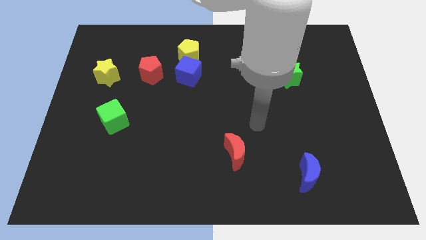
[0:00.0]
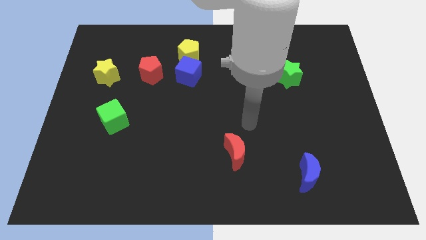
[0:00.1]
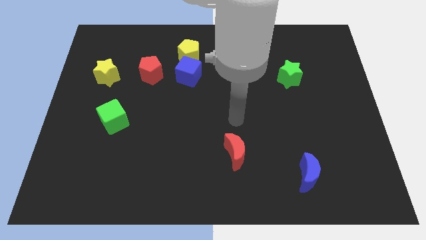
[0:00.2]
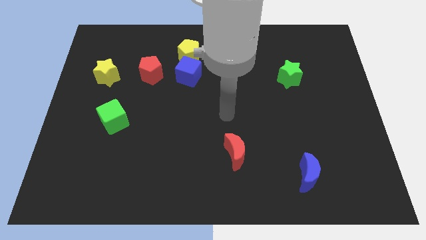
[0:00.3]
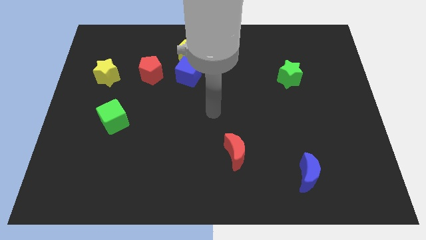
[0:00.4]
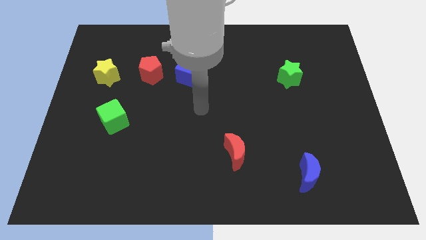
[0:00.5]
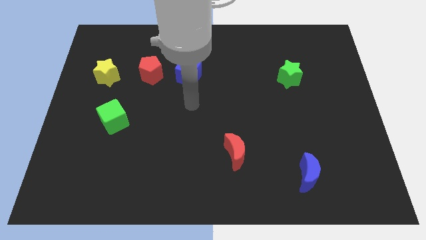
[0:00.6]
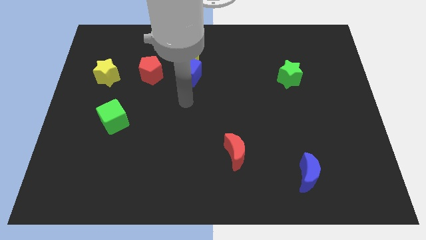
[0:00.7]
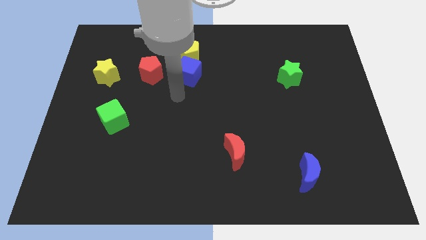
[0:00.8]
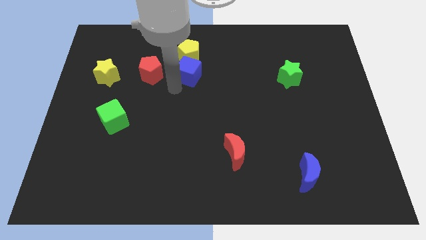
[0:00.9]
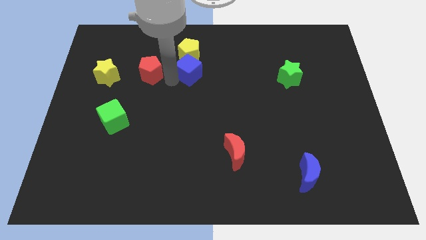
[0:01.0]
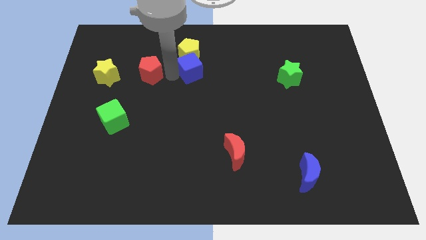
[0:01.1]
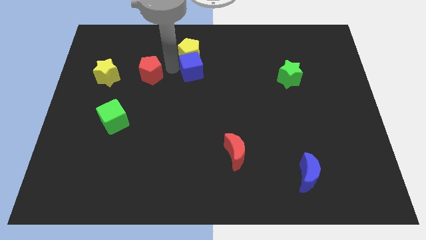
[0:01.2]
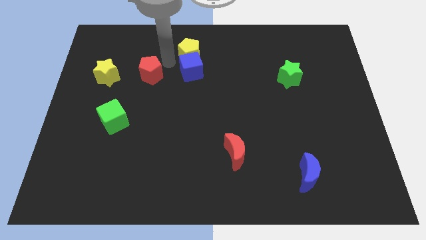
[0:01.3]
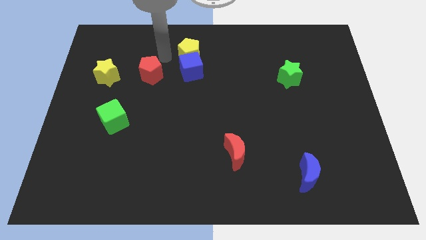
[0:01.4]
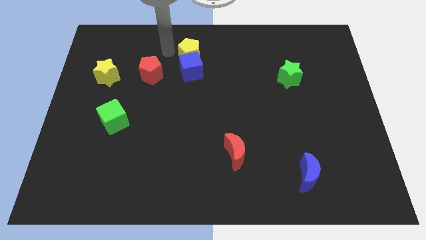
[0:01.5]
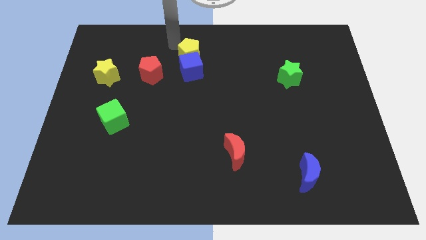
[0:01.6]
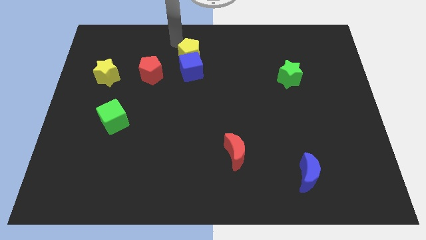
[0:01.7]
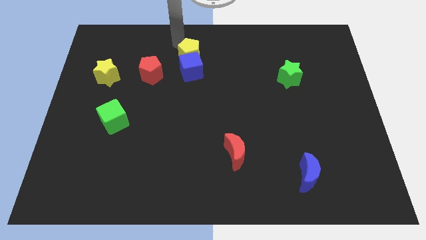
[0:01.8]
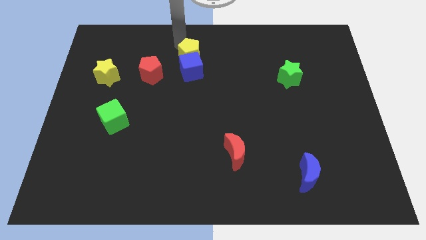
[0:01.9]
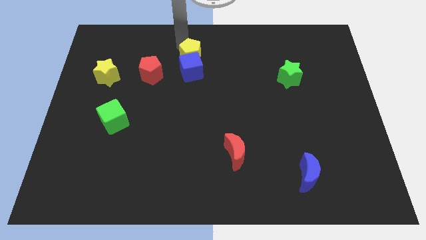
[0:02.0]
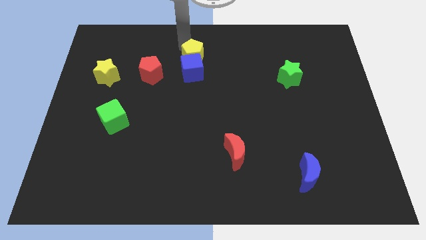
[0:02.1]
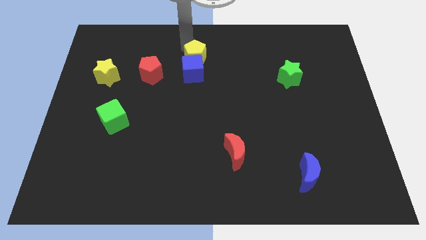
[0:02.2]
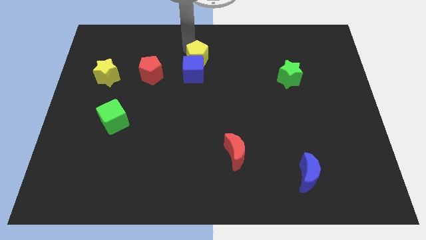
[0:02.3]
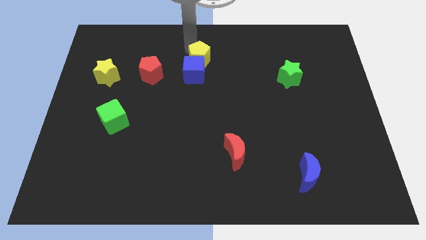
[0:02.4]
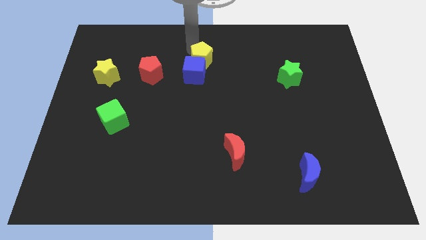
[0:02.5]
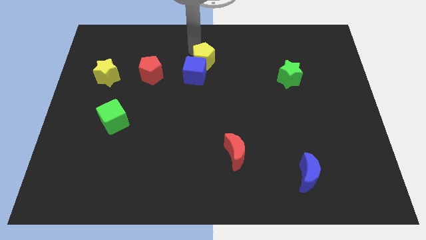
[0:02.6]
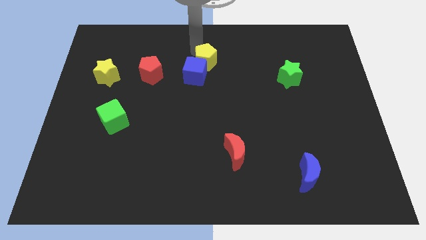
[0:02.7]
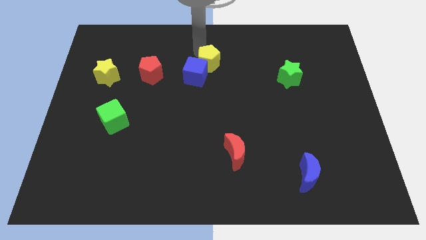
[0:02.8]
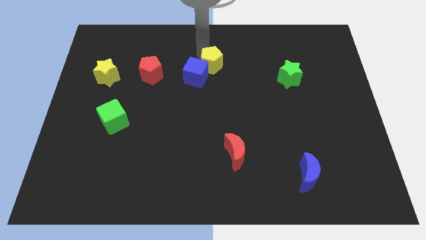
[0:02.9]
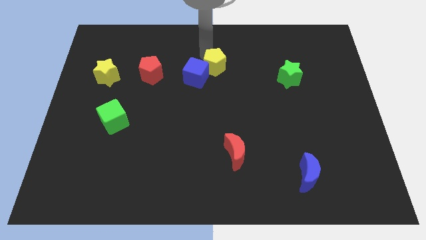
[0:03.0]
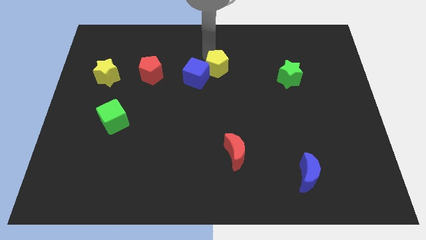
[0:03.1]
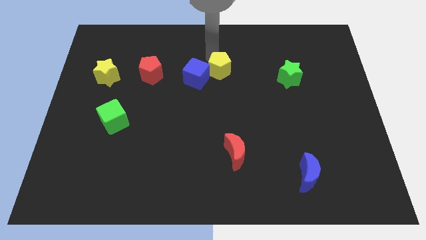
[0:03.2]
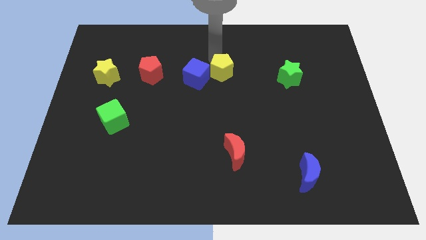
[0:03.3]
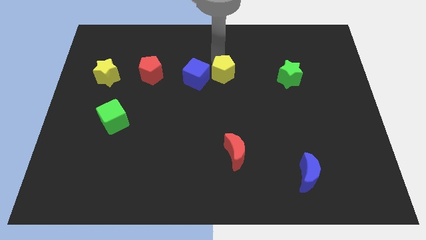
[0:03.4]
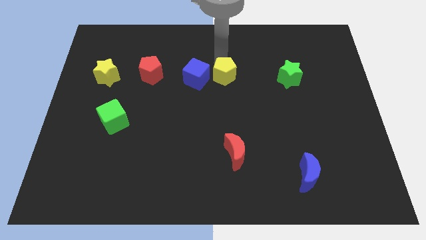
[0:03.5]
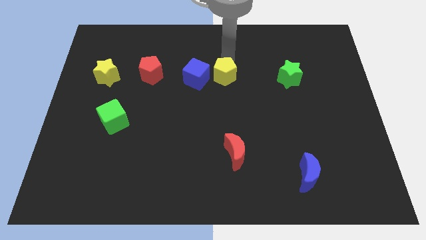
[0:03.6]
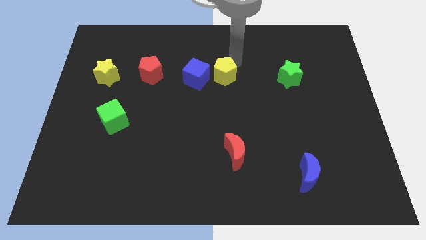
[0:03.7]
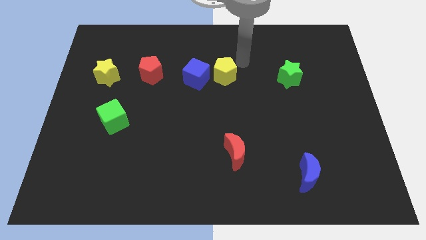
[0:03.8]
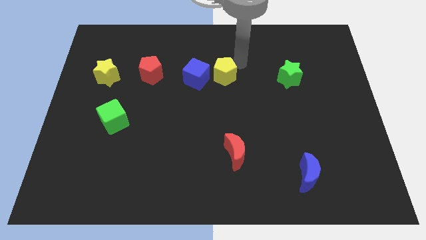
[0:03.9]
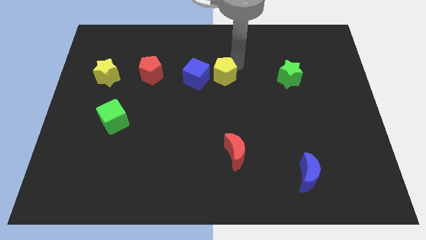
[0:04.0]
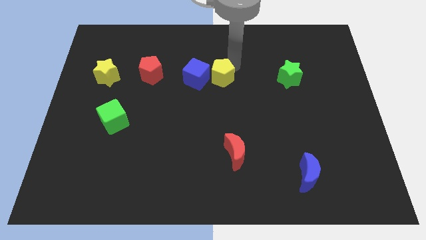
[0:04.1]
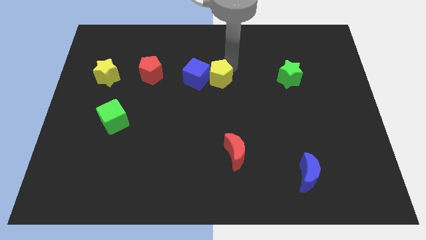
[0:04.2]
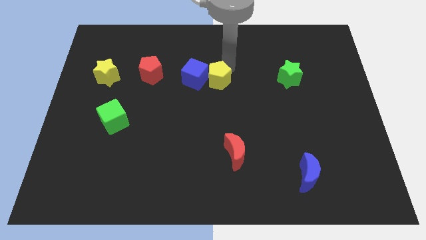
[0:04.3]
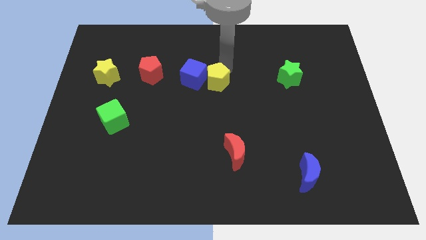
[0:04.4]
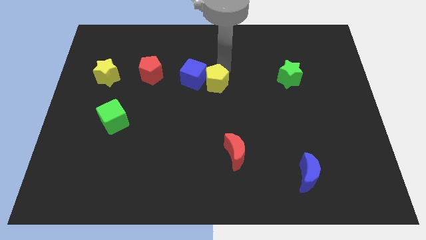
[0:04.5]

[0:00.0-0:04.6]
push the yellow pentagon a little bit downwards

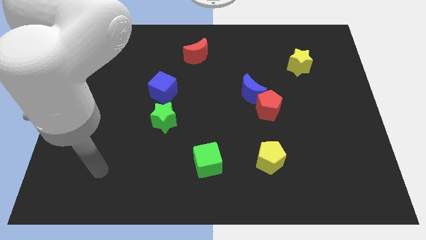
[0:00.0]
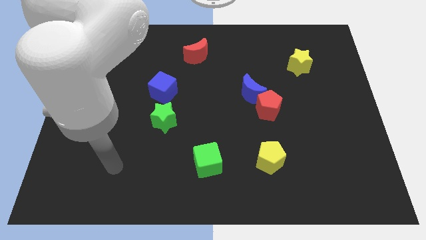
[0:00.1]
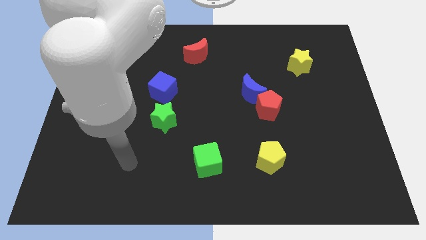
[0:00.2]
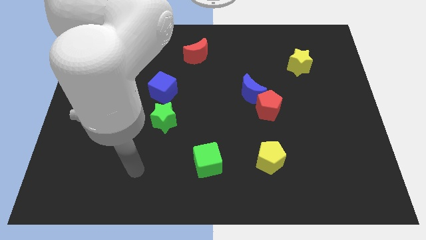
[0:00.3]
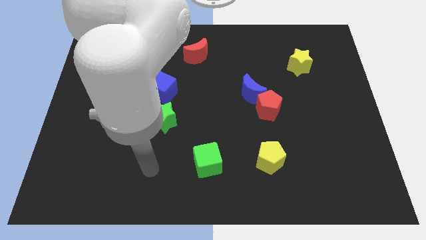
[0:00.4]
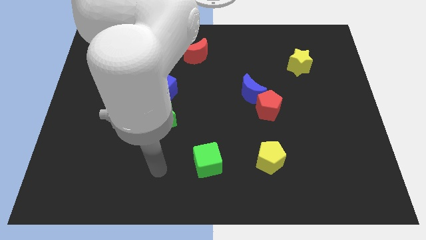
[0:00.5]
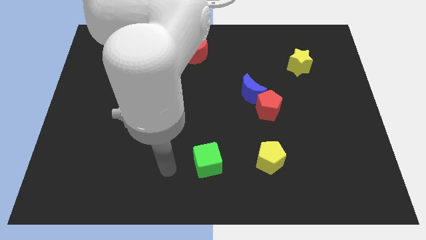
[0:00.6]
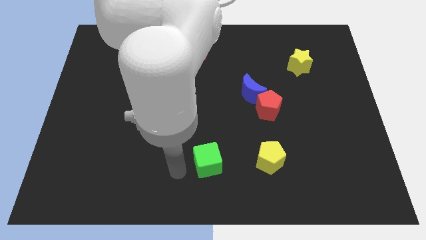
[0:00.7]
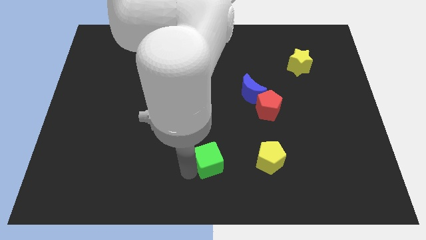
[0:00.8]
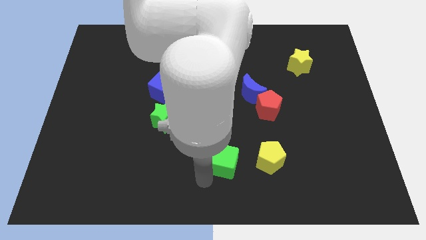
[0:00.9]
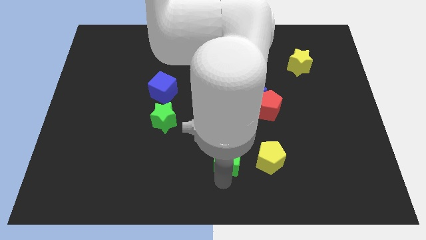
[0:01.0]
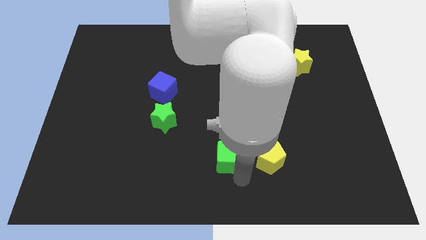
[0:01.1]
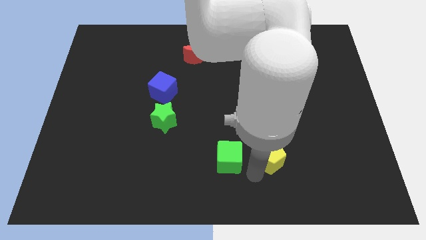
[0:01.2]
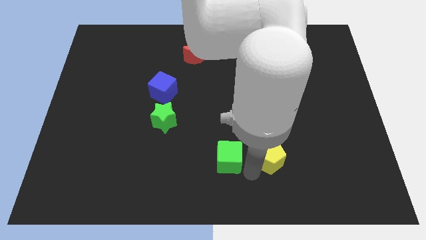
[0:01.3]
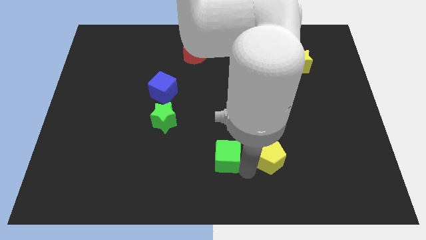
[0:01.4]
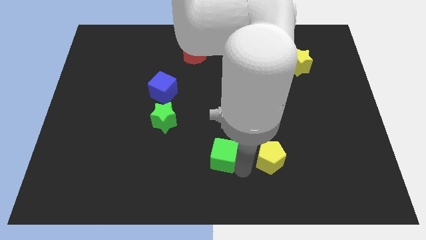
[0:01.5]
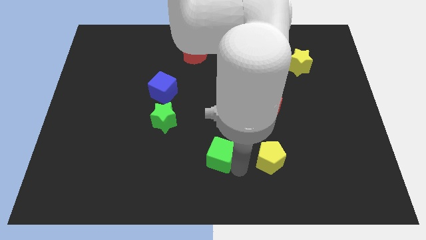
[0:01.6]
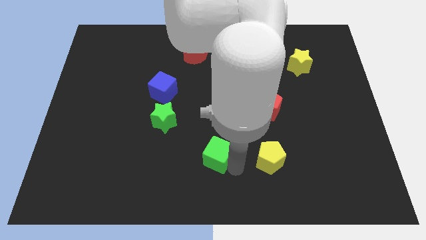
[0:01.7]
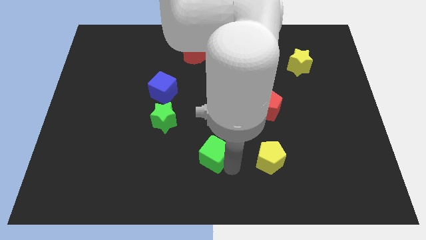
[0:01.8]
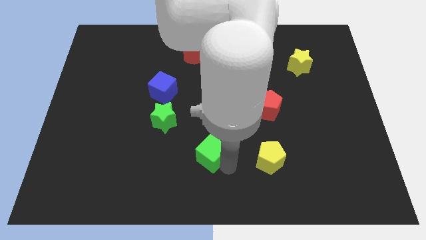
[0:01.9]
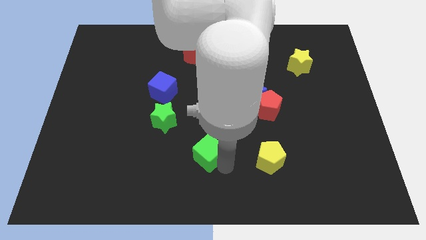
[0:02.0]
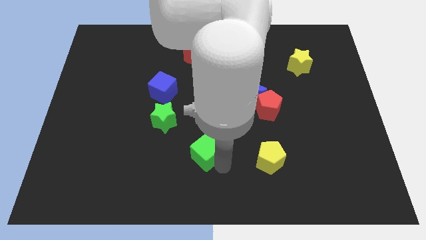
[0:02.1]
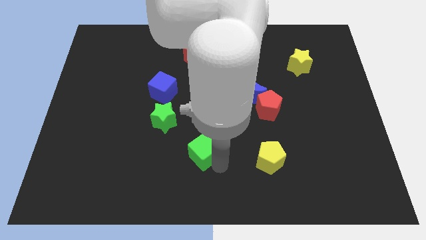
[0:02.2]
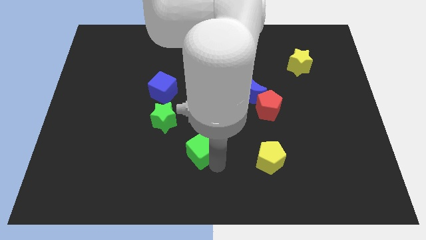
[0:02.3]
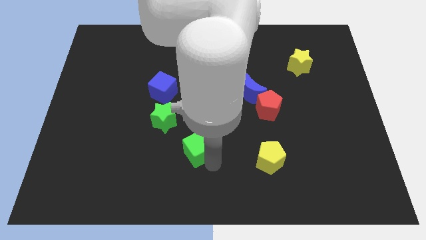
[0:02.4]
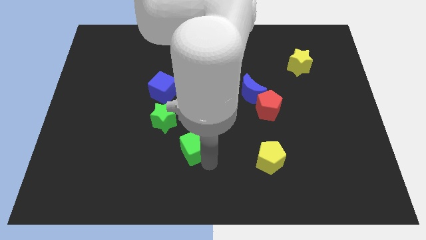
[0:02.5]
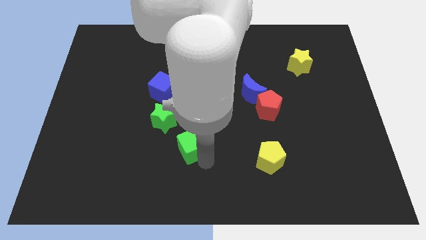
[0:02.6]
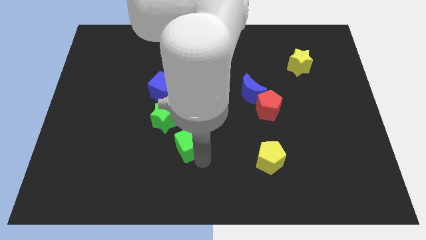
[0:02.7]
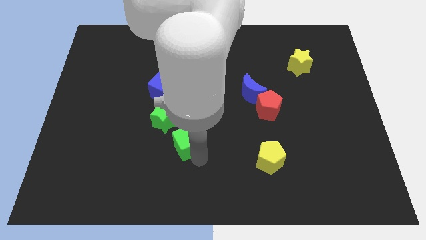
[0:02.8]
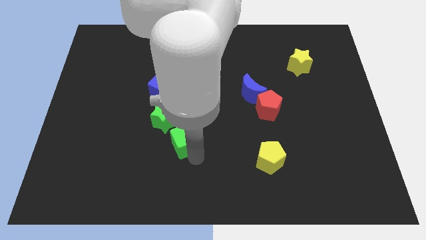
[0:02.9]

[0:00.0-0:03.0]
slightly push the green cube up and left diagonally

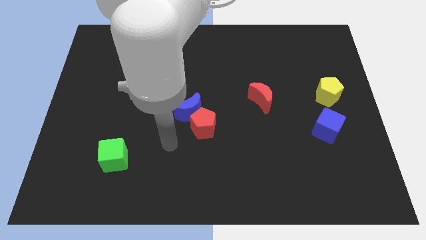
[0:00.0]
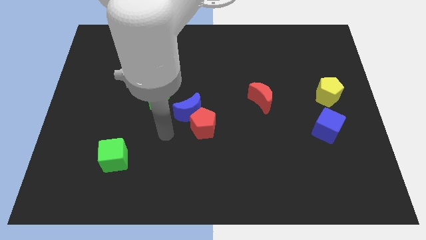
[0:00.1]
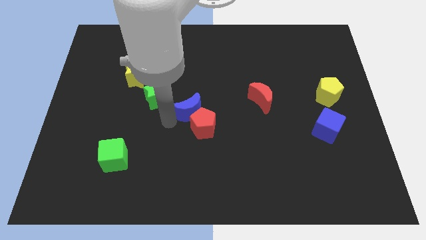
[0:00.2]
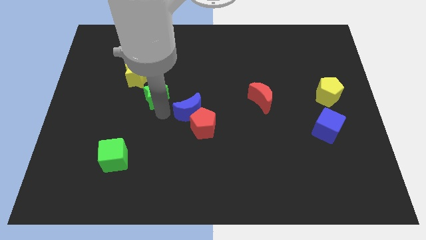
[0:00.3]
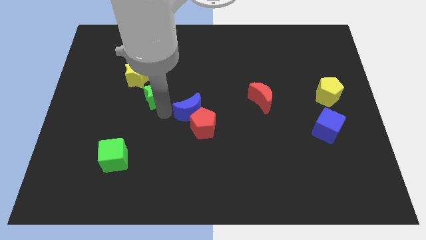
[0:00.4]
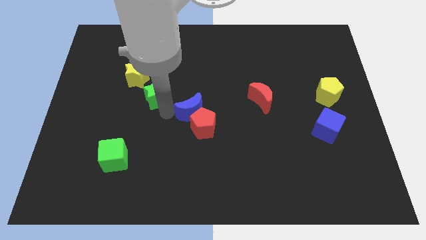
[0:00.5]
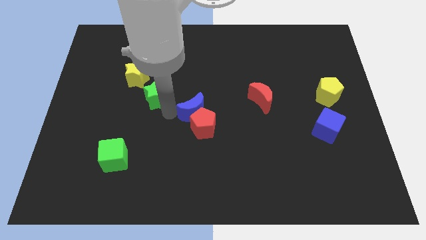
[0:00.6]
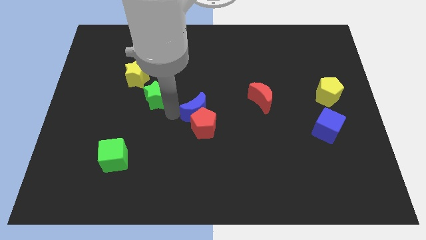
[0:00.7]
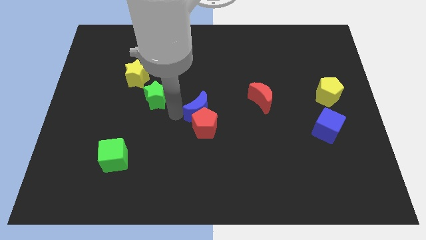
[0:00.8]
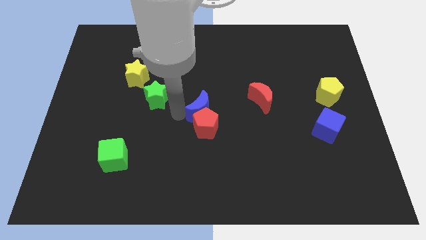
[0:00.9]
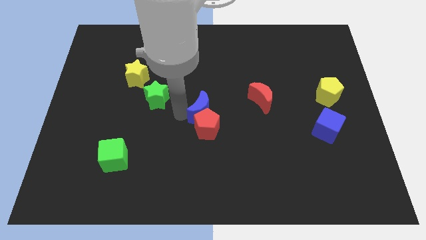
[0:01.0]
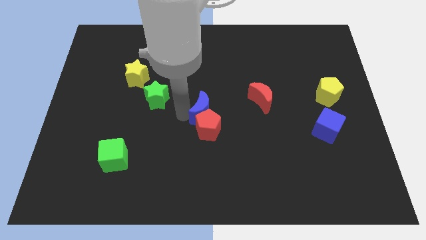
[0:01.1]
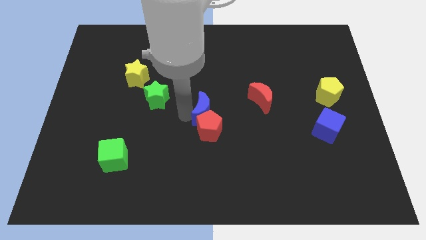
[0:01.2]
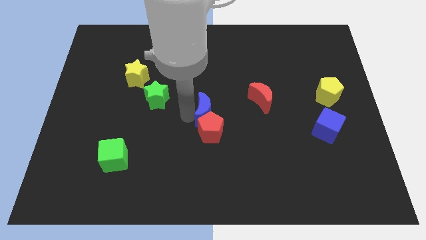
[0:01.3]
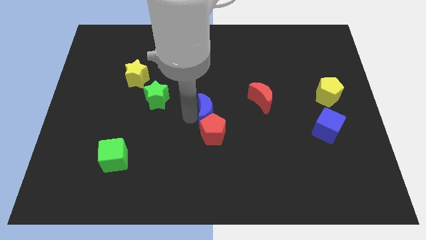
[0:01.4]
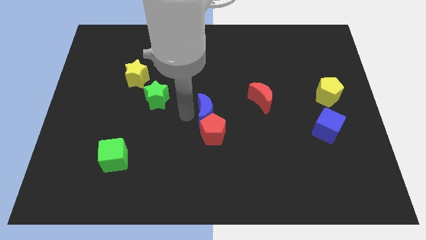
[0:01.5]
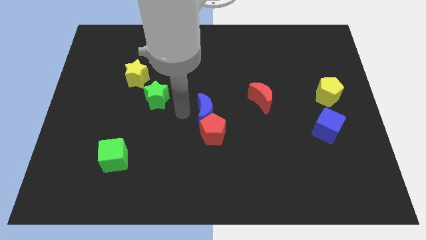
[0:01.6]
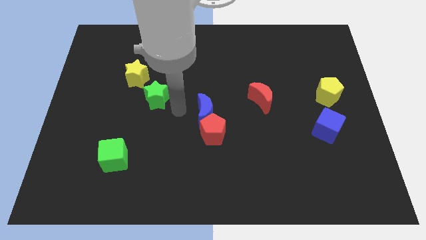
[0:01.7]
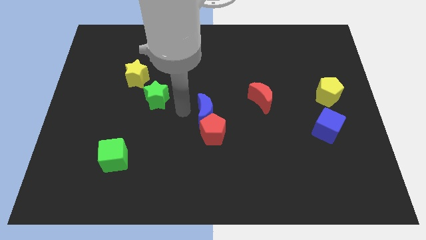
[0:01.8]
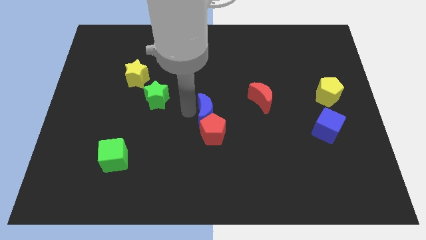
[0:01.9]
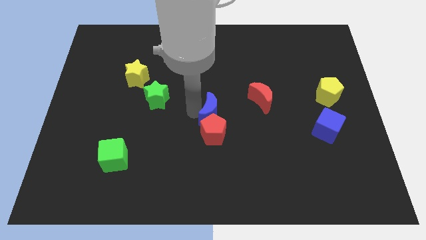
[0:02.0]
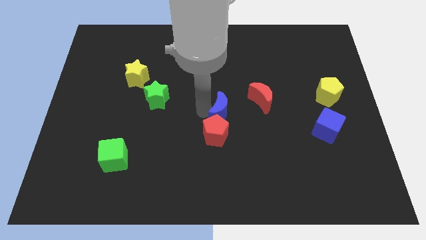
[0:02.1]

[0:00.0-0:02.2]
push the blue moon right a little bit
